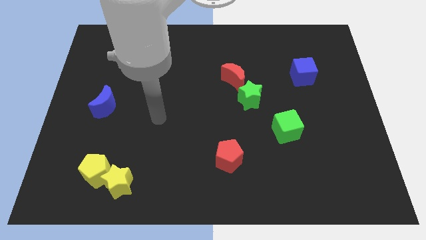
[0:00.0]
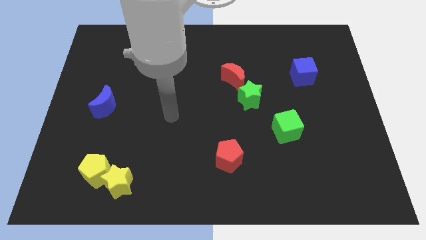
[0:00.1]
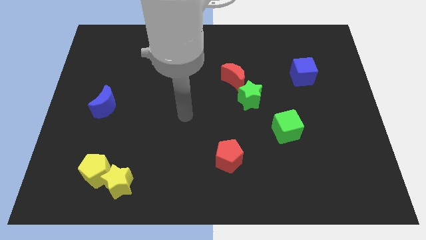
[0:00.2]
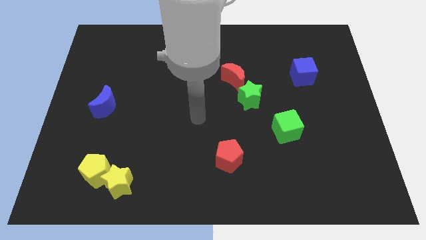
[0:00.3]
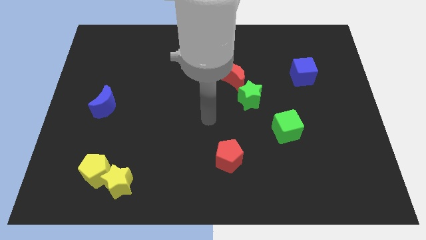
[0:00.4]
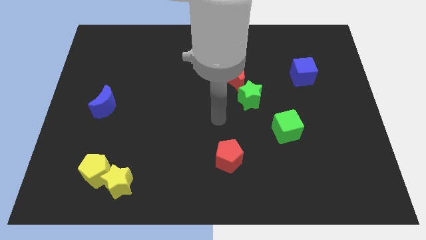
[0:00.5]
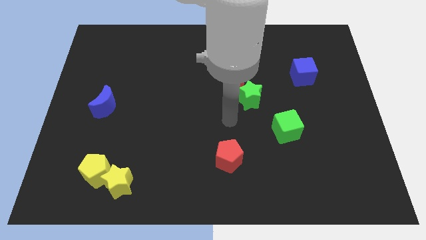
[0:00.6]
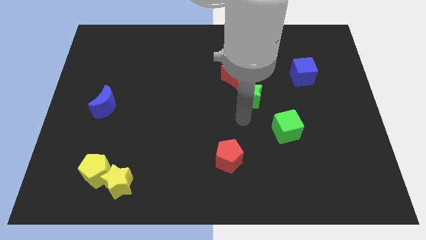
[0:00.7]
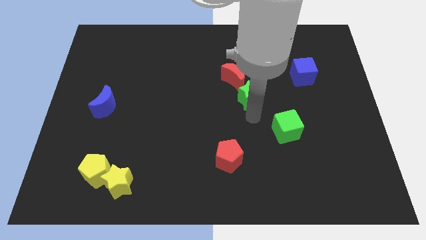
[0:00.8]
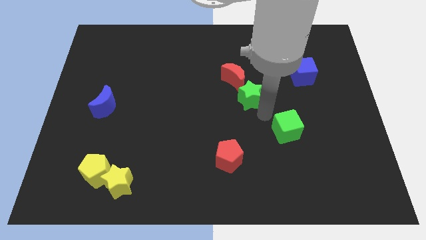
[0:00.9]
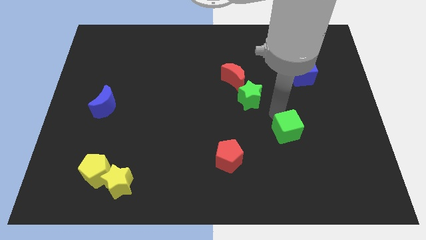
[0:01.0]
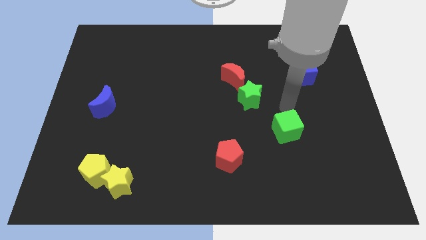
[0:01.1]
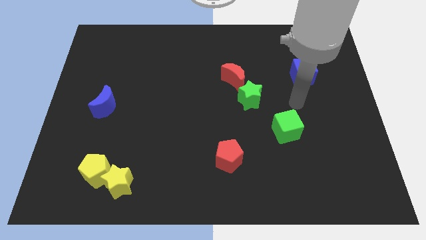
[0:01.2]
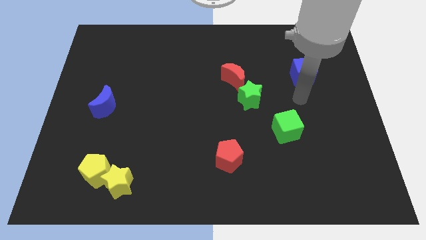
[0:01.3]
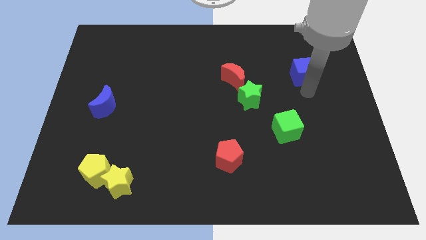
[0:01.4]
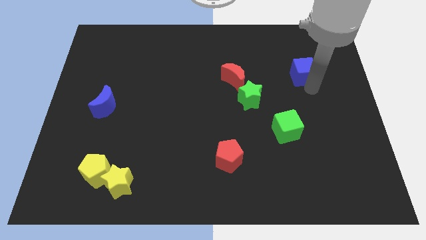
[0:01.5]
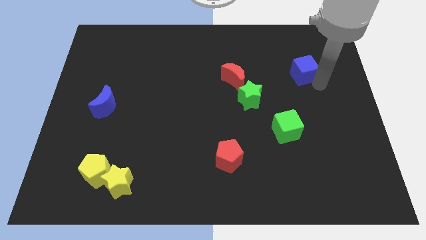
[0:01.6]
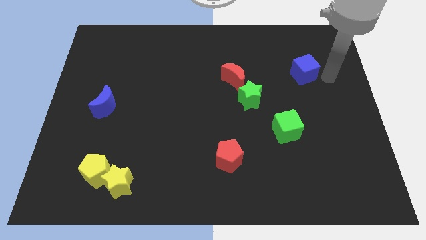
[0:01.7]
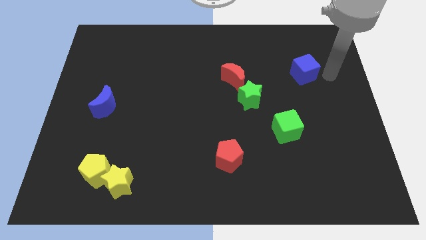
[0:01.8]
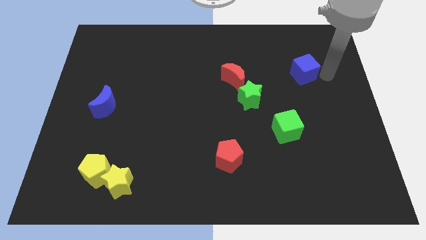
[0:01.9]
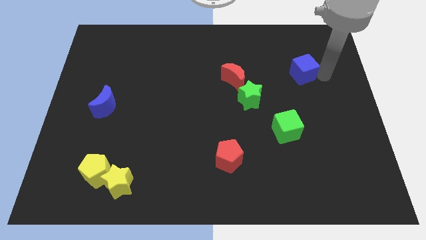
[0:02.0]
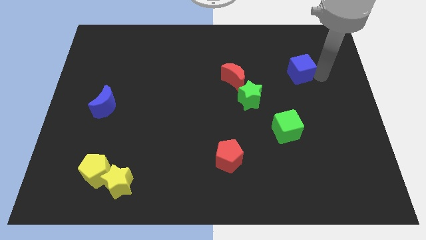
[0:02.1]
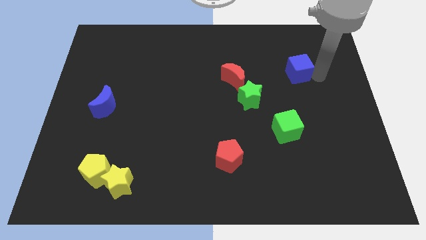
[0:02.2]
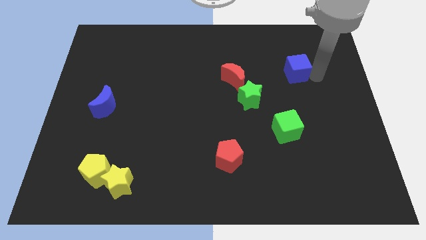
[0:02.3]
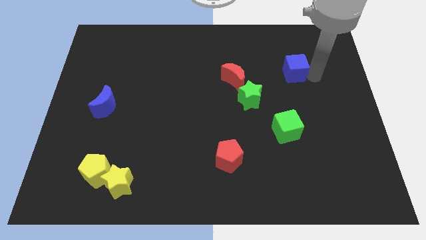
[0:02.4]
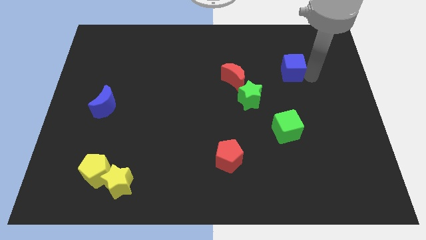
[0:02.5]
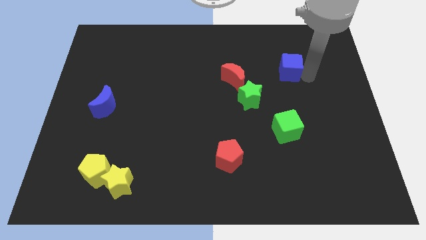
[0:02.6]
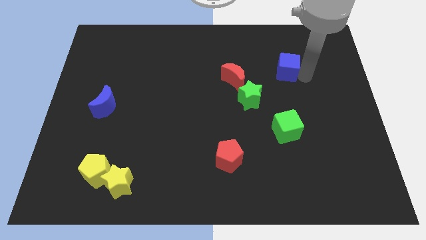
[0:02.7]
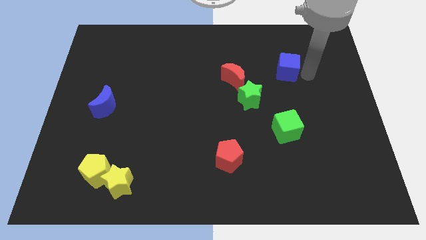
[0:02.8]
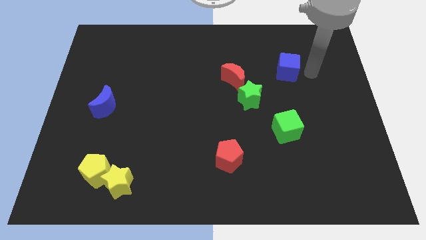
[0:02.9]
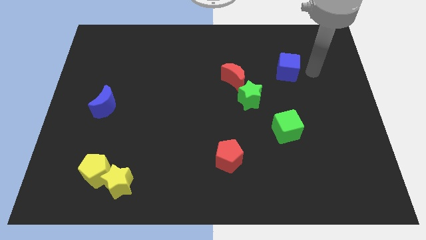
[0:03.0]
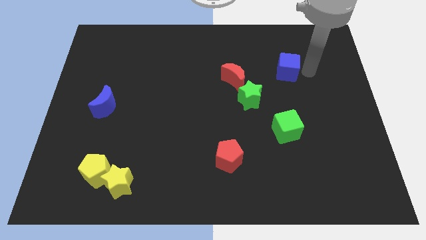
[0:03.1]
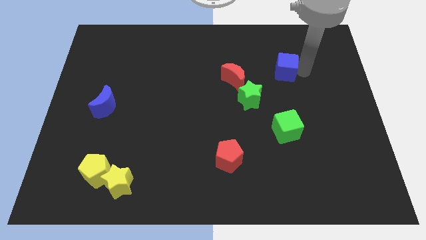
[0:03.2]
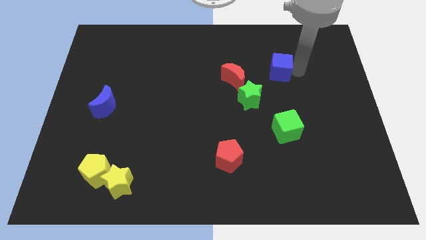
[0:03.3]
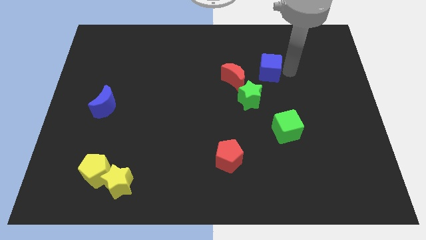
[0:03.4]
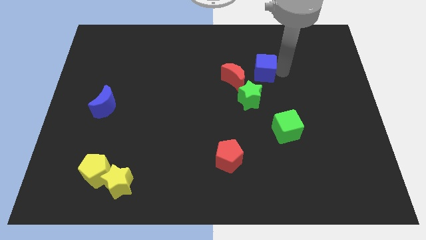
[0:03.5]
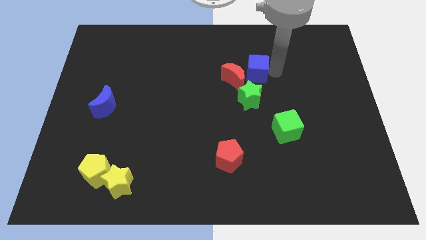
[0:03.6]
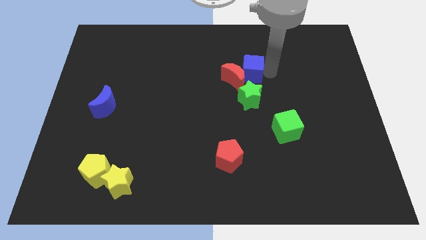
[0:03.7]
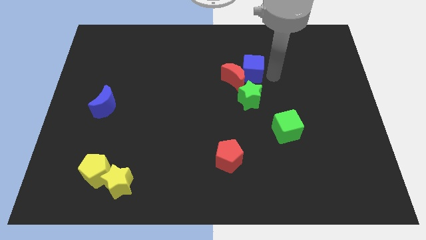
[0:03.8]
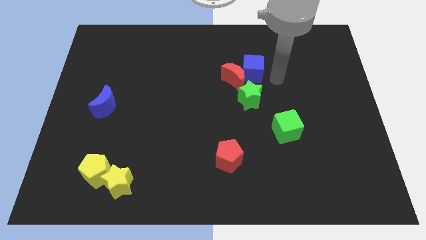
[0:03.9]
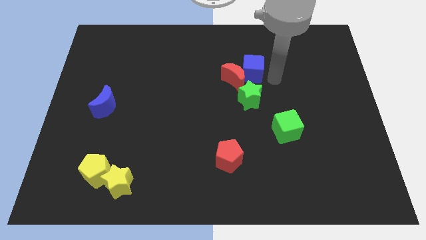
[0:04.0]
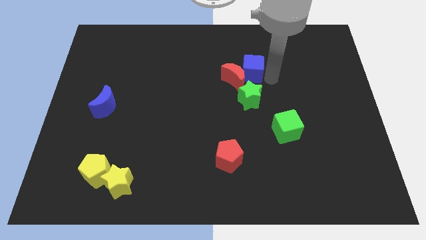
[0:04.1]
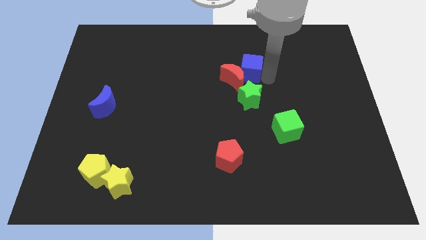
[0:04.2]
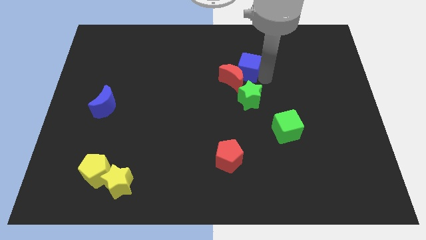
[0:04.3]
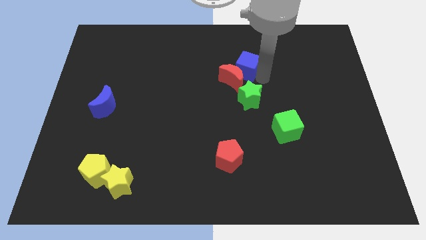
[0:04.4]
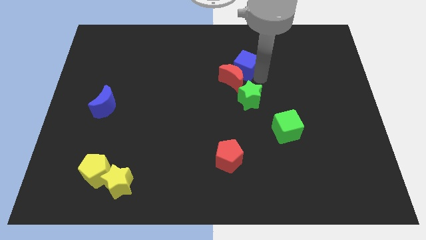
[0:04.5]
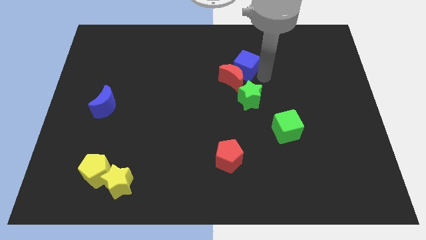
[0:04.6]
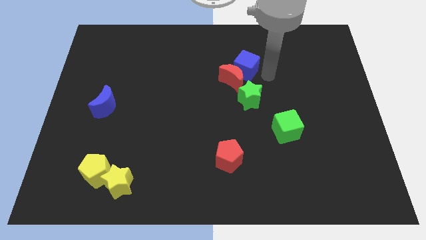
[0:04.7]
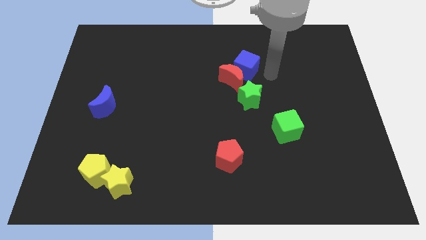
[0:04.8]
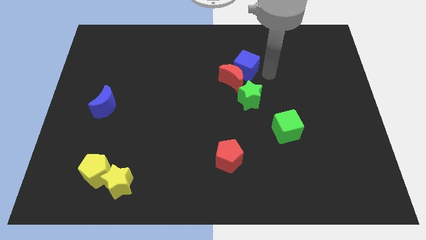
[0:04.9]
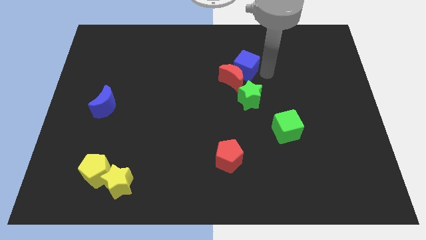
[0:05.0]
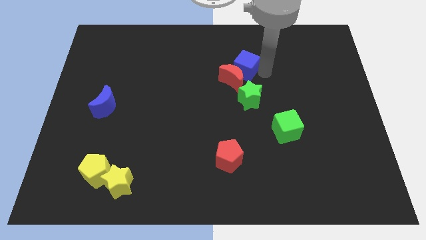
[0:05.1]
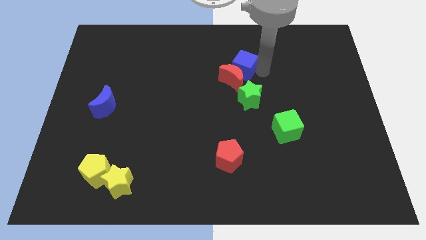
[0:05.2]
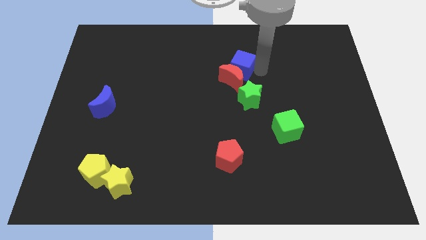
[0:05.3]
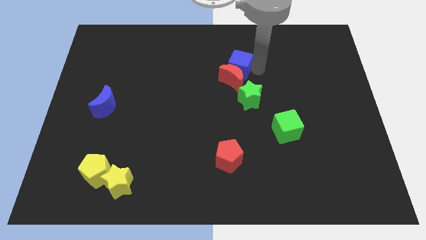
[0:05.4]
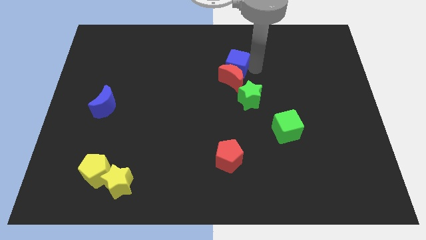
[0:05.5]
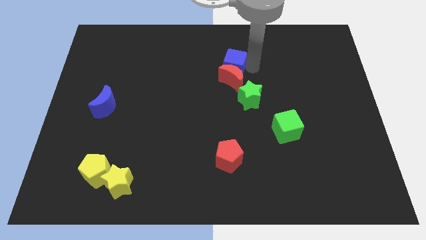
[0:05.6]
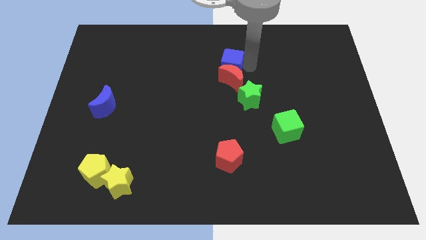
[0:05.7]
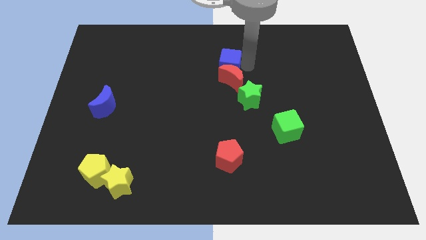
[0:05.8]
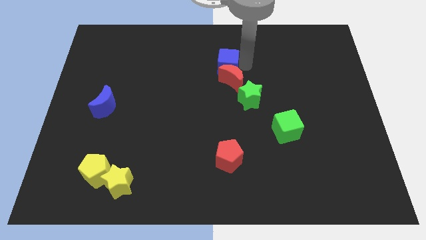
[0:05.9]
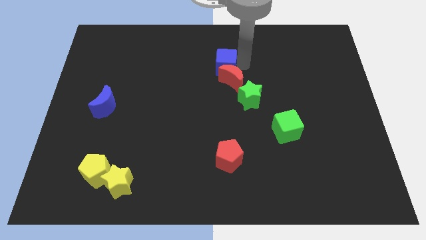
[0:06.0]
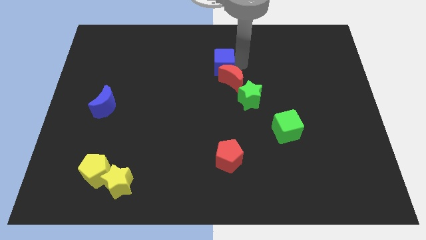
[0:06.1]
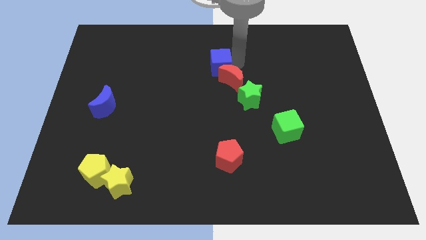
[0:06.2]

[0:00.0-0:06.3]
slide the blue cube left

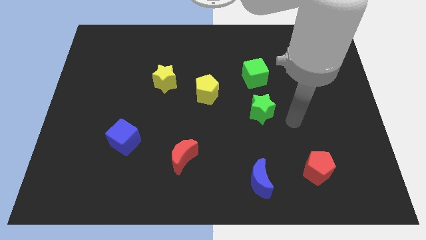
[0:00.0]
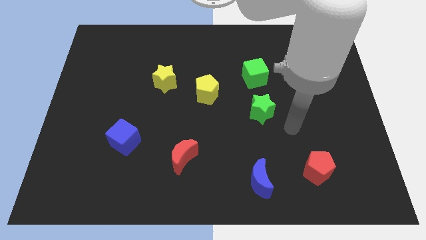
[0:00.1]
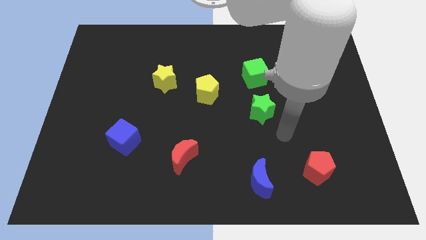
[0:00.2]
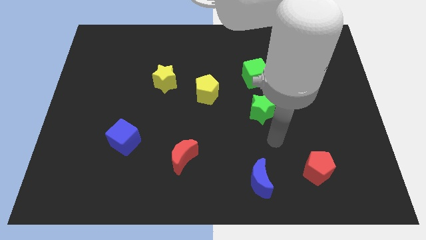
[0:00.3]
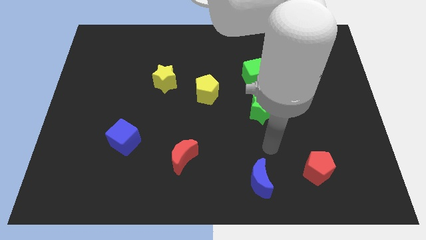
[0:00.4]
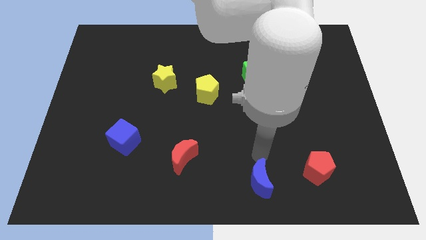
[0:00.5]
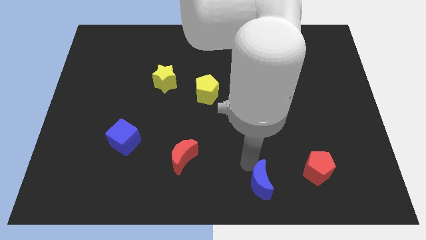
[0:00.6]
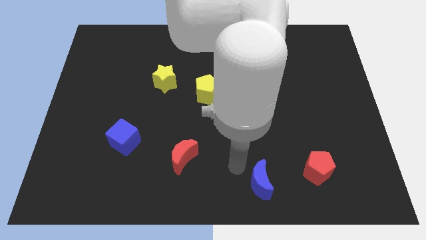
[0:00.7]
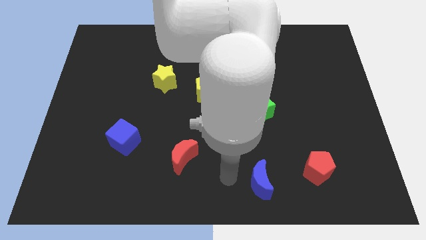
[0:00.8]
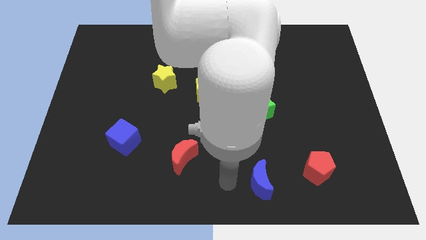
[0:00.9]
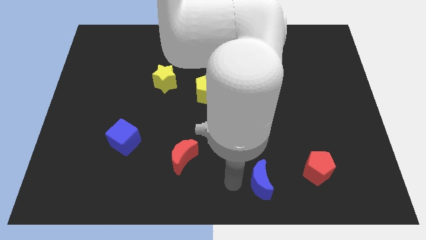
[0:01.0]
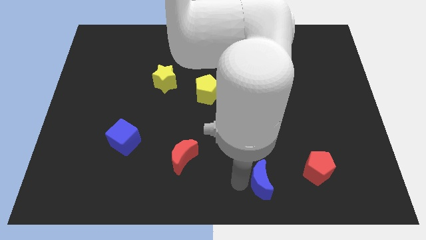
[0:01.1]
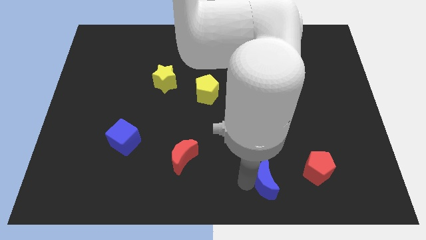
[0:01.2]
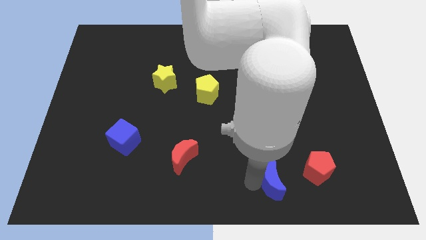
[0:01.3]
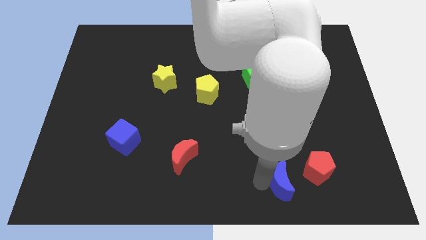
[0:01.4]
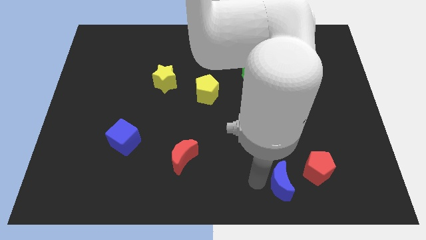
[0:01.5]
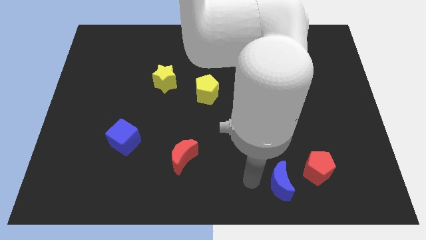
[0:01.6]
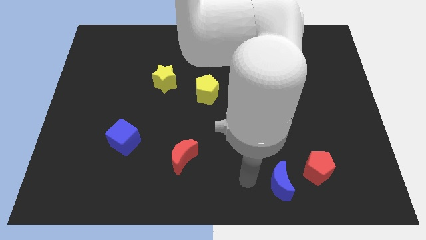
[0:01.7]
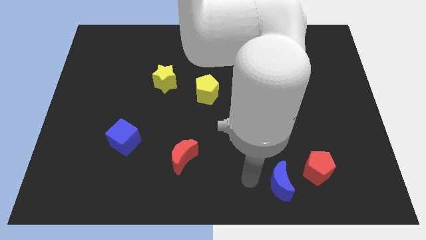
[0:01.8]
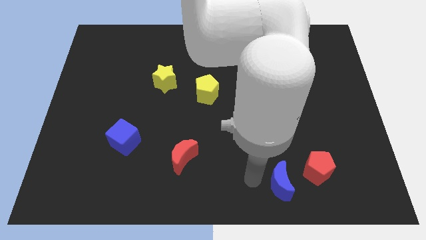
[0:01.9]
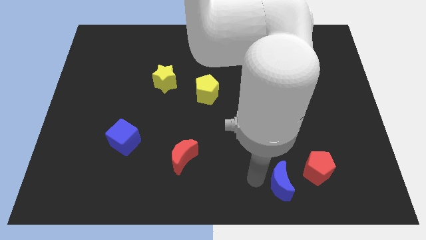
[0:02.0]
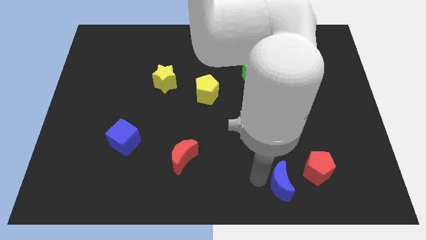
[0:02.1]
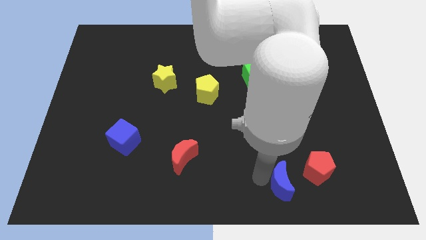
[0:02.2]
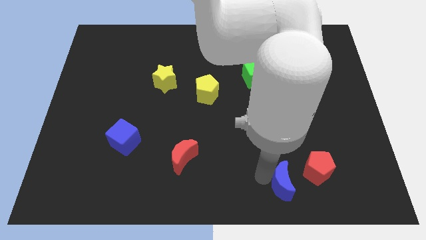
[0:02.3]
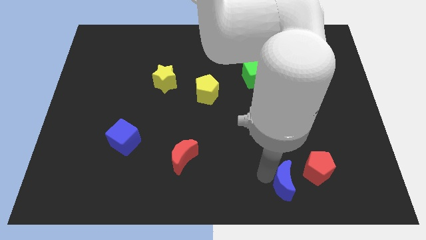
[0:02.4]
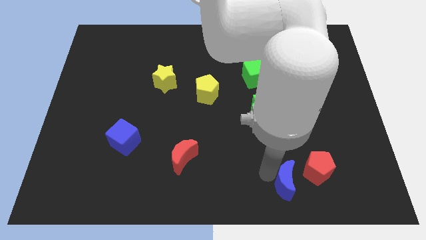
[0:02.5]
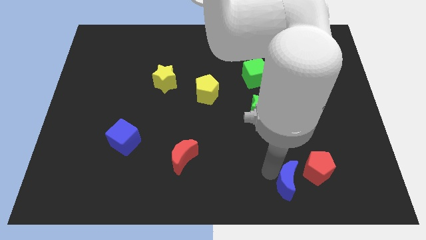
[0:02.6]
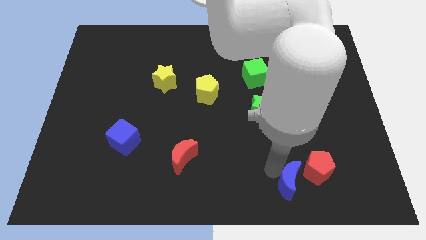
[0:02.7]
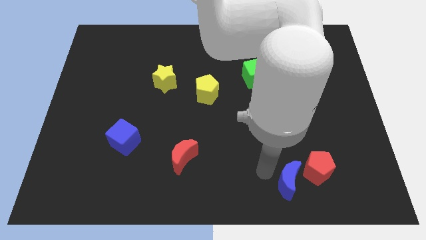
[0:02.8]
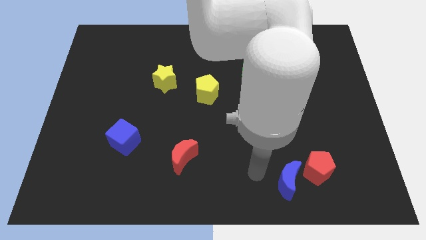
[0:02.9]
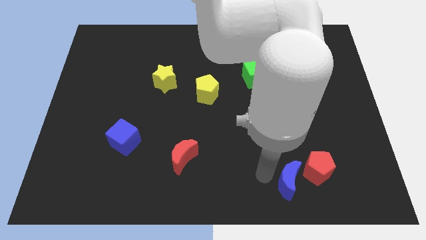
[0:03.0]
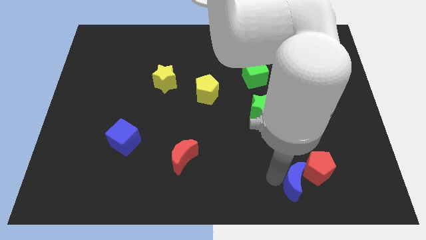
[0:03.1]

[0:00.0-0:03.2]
push the blue moon slightly right
